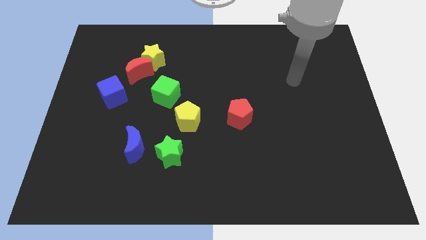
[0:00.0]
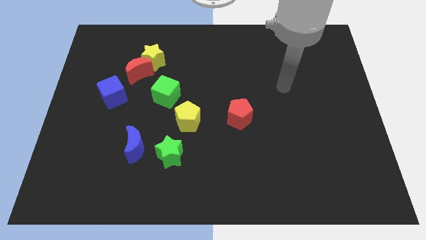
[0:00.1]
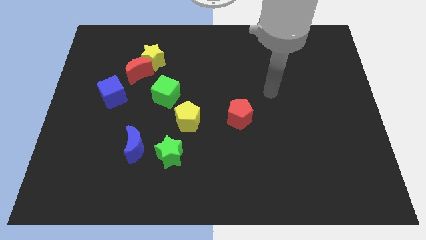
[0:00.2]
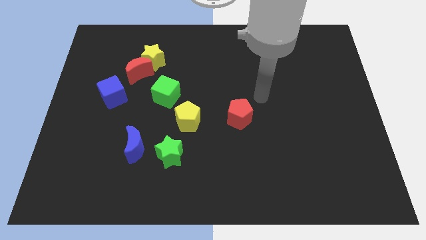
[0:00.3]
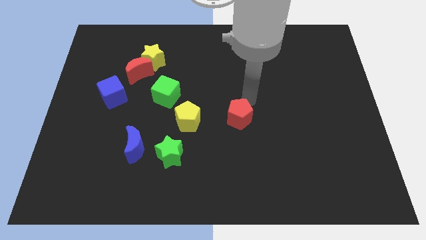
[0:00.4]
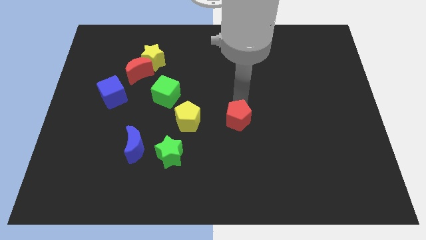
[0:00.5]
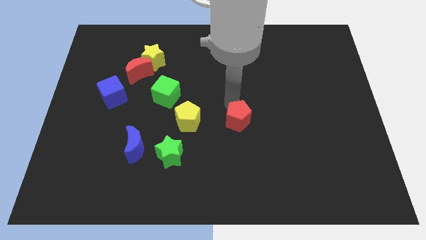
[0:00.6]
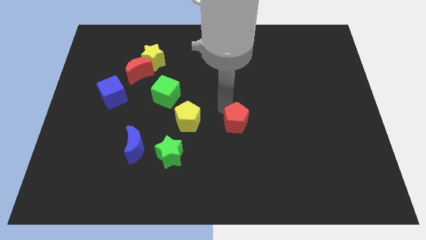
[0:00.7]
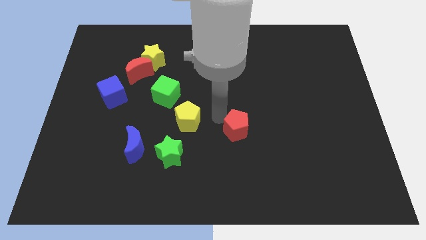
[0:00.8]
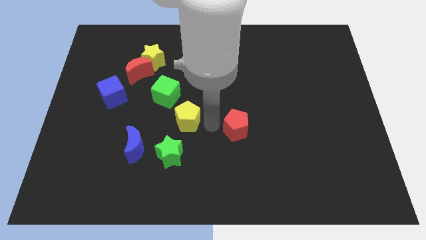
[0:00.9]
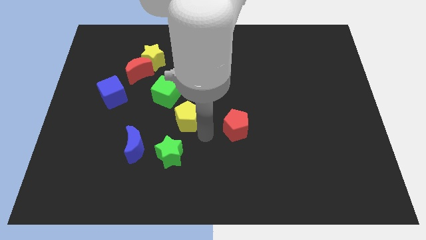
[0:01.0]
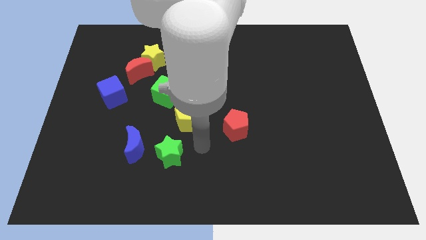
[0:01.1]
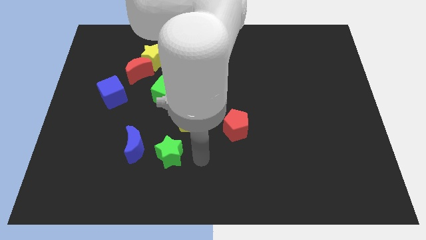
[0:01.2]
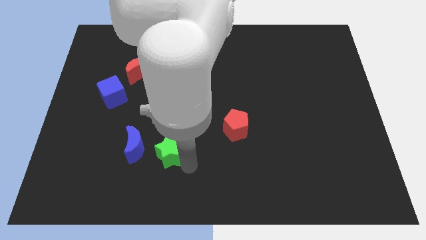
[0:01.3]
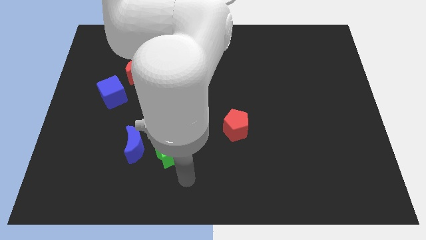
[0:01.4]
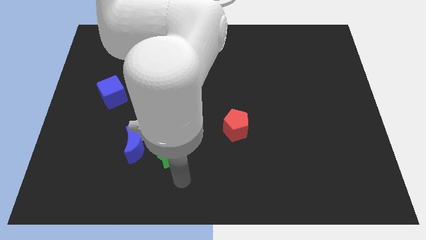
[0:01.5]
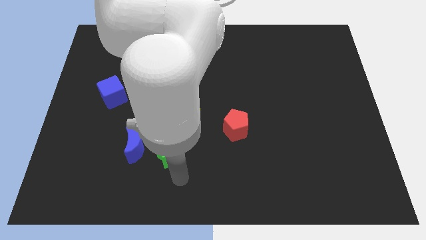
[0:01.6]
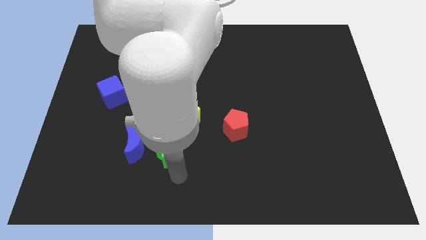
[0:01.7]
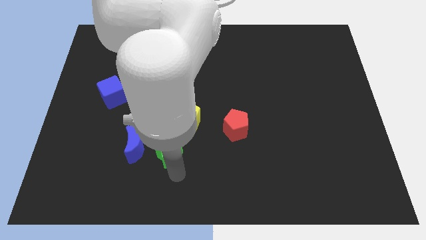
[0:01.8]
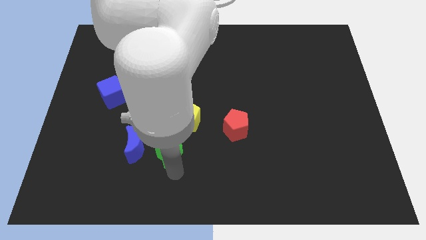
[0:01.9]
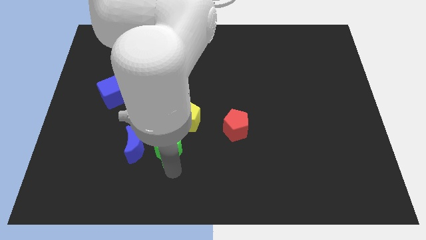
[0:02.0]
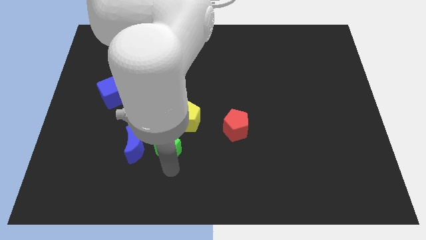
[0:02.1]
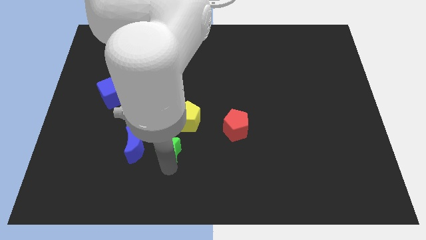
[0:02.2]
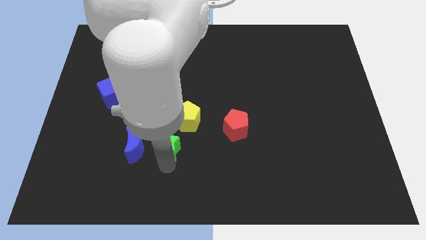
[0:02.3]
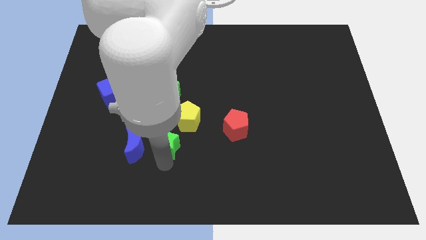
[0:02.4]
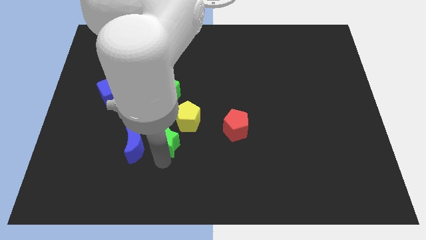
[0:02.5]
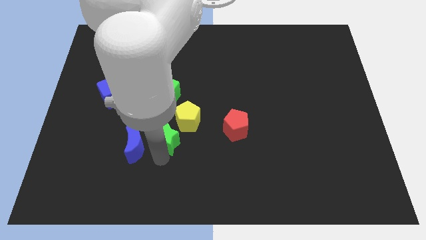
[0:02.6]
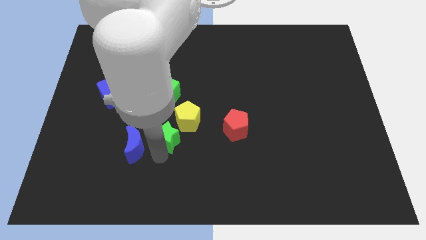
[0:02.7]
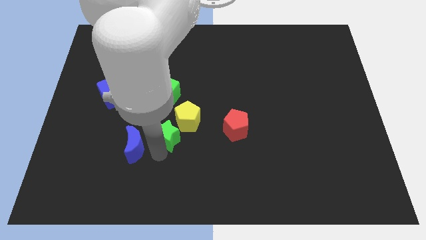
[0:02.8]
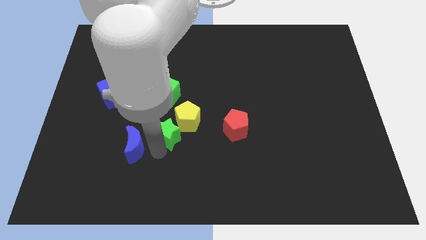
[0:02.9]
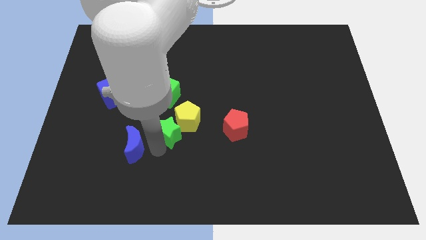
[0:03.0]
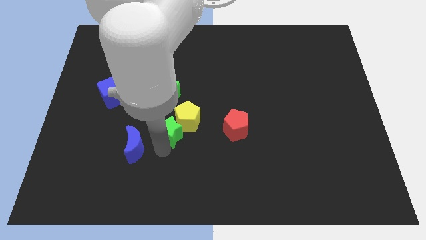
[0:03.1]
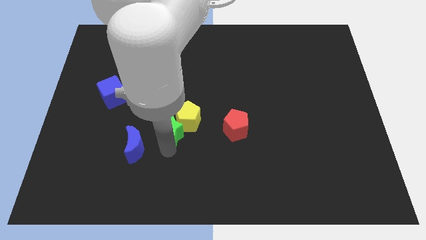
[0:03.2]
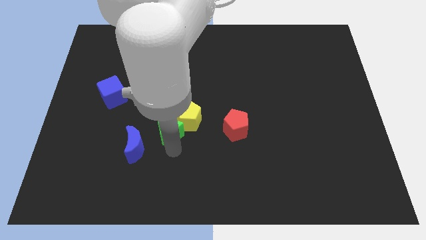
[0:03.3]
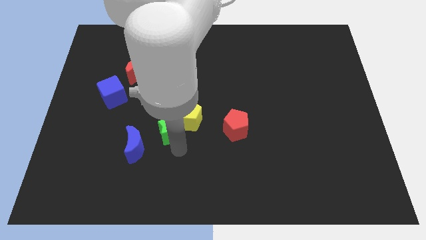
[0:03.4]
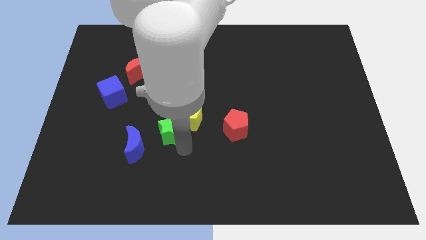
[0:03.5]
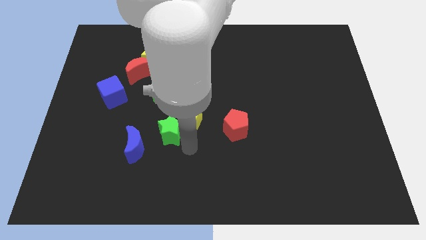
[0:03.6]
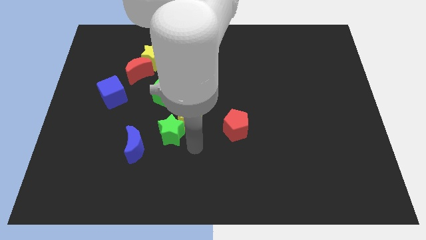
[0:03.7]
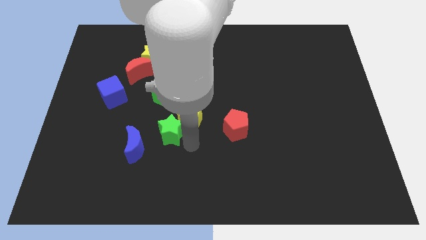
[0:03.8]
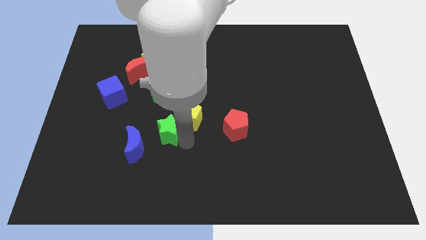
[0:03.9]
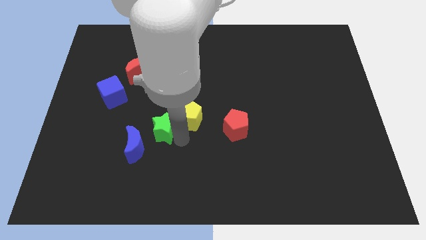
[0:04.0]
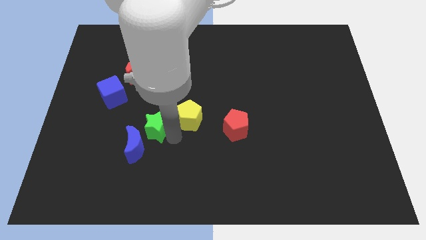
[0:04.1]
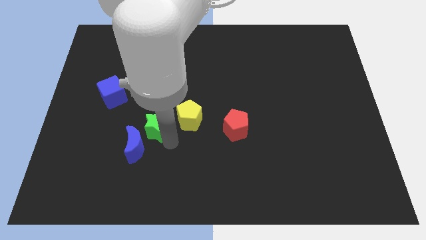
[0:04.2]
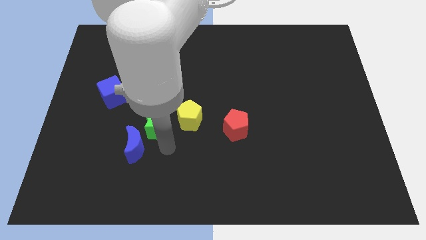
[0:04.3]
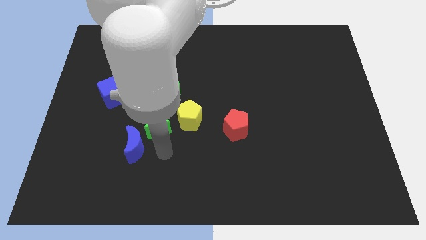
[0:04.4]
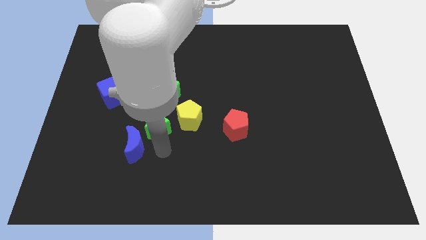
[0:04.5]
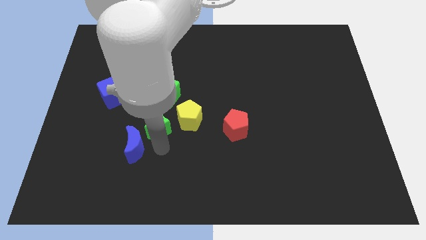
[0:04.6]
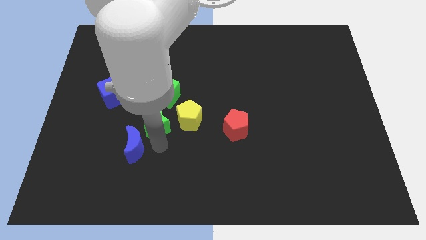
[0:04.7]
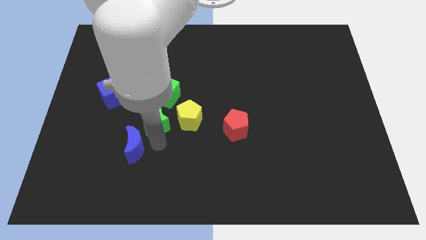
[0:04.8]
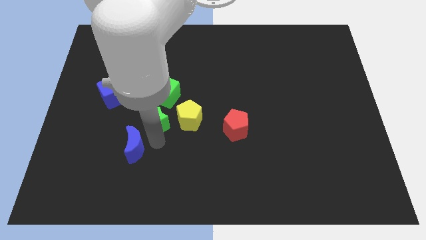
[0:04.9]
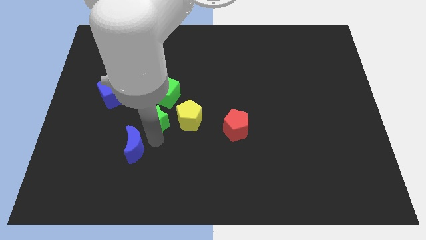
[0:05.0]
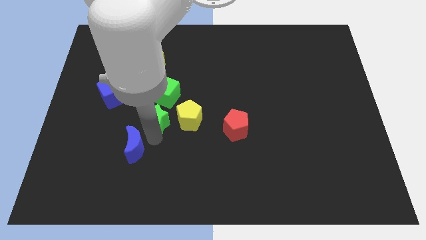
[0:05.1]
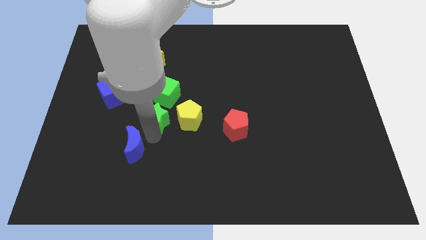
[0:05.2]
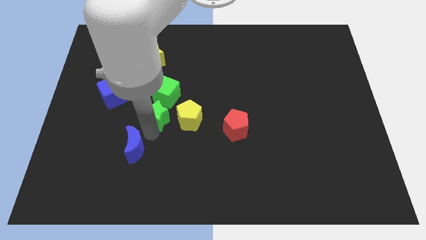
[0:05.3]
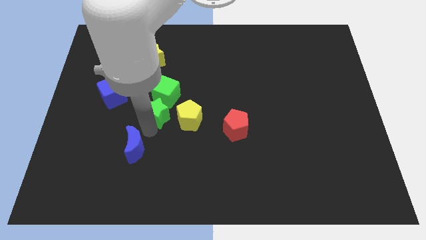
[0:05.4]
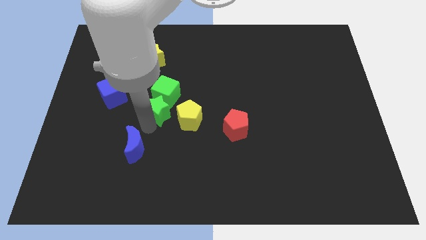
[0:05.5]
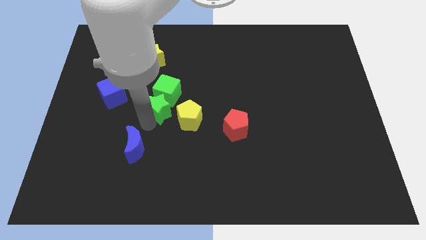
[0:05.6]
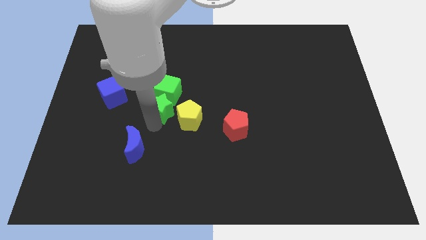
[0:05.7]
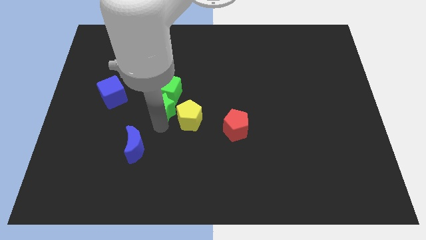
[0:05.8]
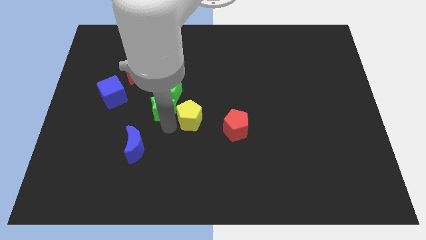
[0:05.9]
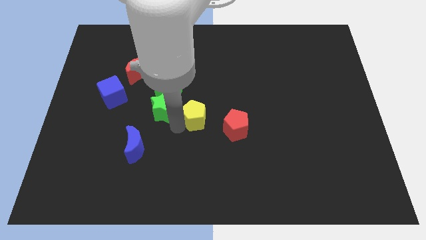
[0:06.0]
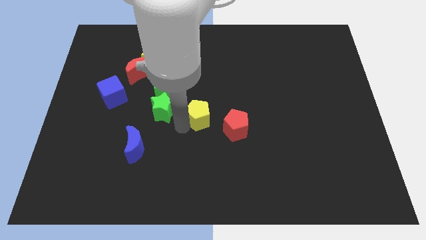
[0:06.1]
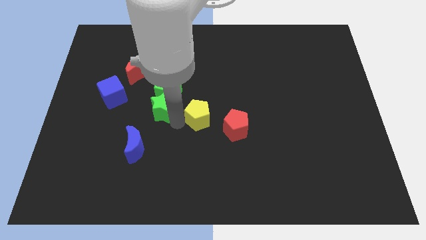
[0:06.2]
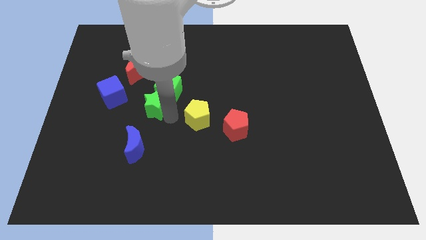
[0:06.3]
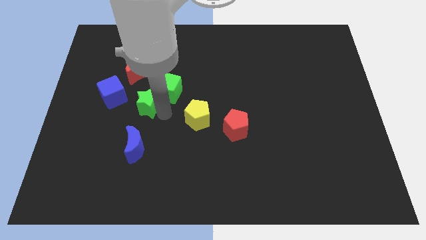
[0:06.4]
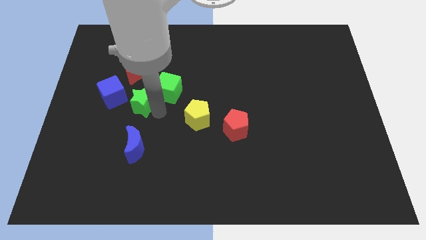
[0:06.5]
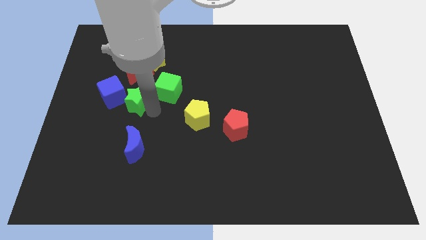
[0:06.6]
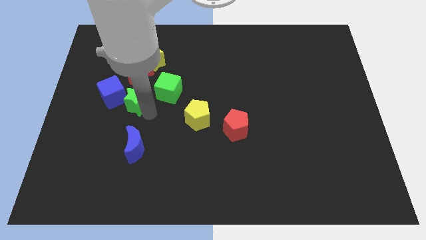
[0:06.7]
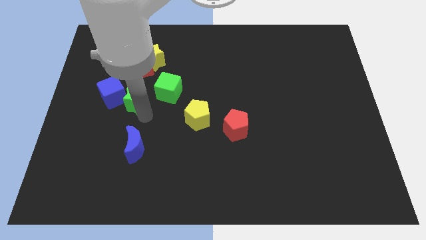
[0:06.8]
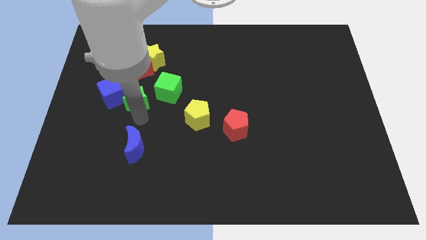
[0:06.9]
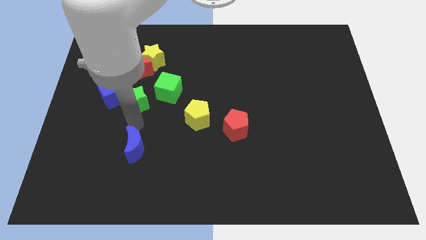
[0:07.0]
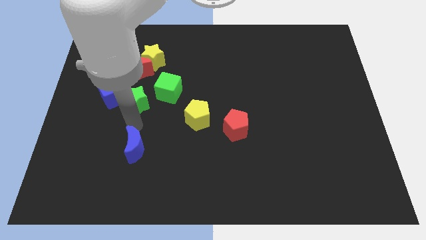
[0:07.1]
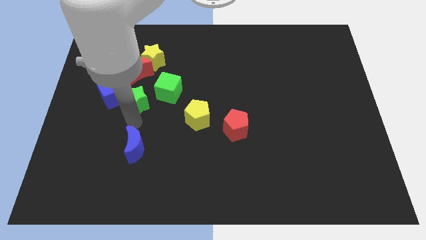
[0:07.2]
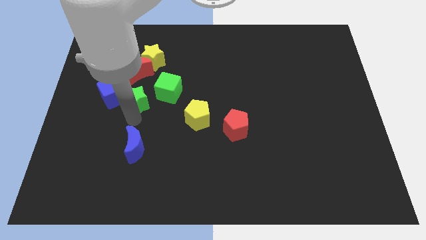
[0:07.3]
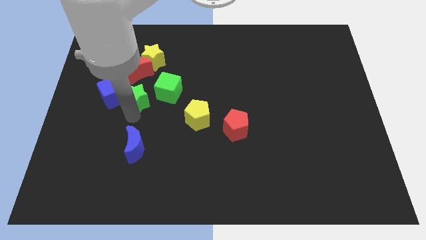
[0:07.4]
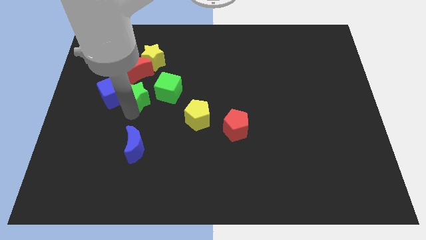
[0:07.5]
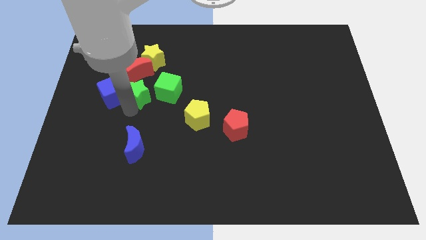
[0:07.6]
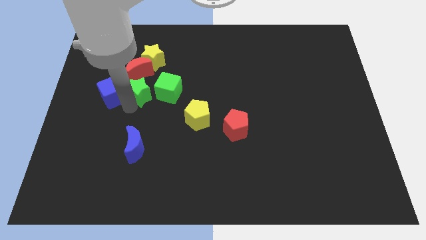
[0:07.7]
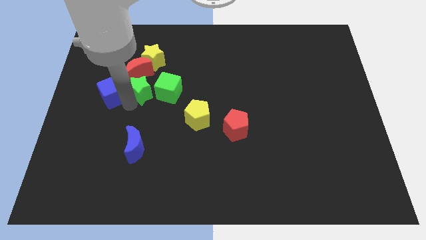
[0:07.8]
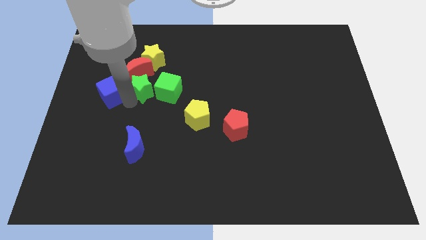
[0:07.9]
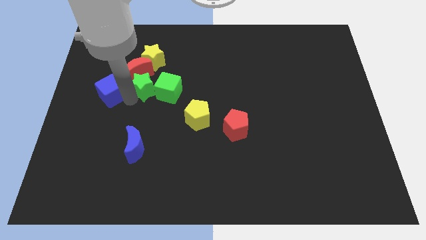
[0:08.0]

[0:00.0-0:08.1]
push the green star next to the red moon

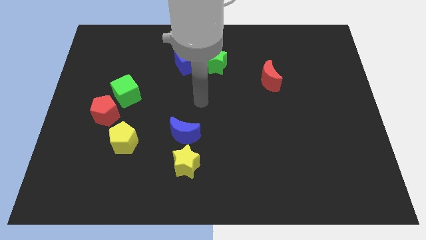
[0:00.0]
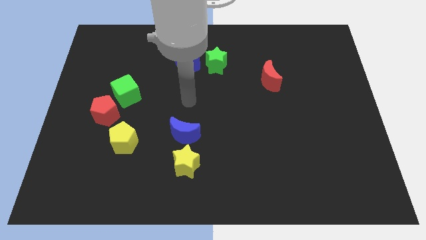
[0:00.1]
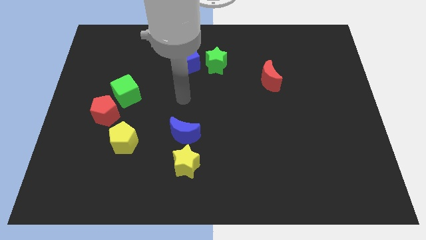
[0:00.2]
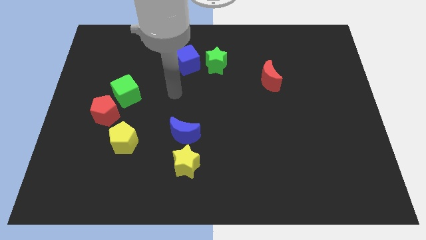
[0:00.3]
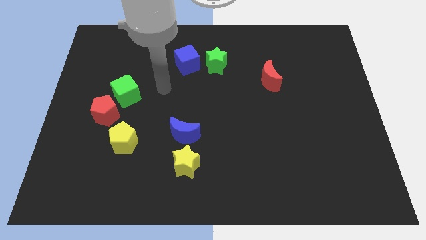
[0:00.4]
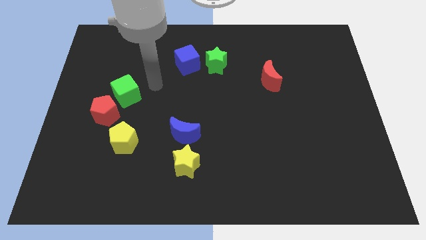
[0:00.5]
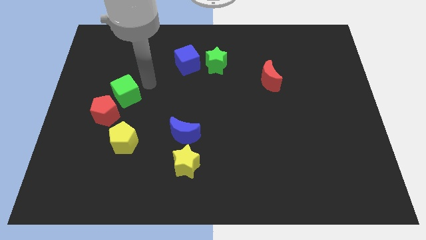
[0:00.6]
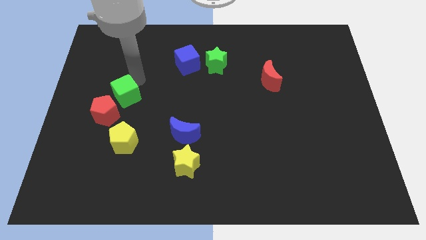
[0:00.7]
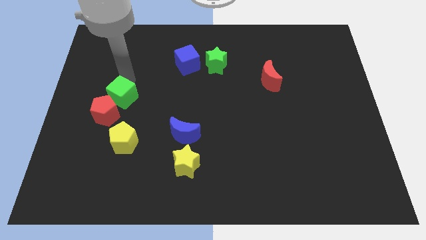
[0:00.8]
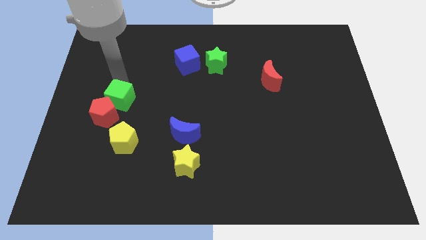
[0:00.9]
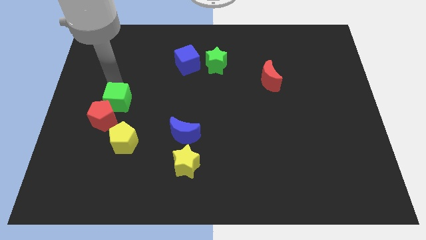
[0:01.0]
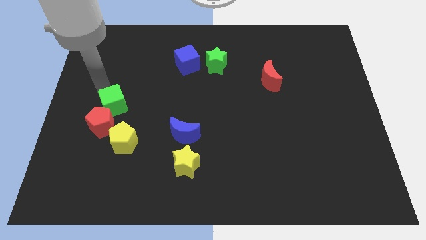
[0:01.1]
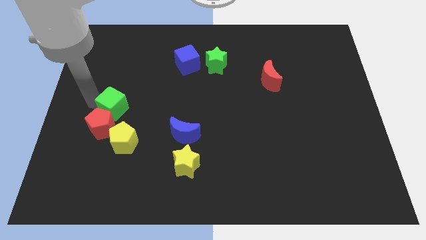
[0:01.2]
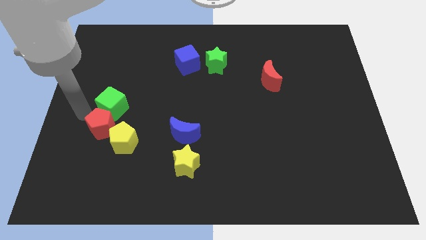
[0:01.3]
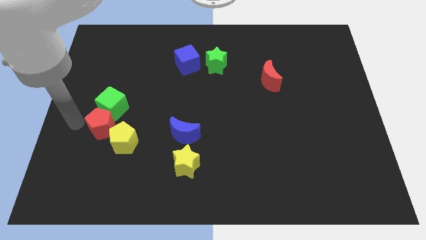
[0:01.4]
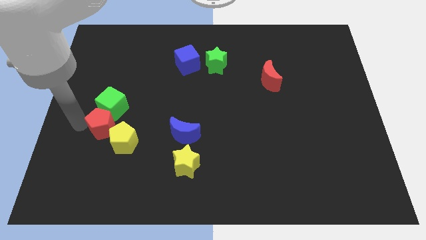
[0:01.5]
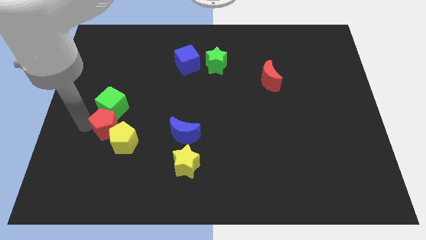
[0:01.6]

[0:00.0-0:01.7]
push the red pentagon to the yellow pentagon
